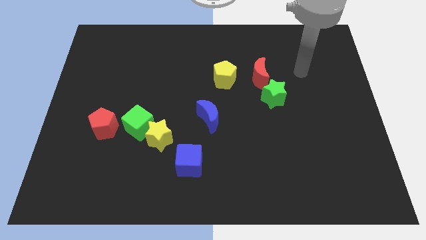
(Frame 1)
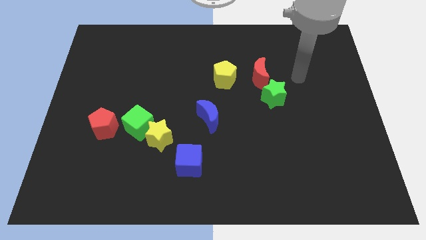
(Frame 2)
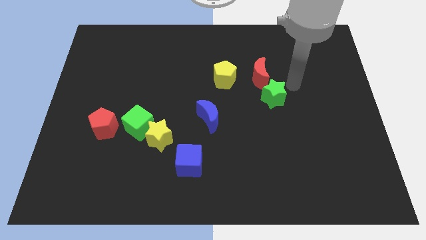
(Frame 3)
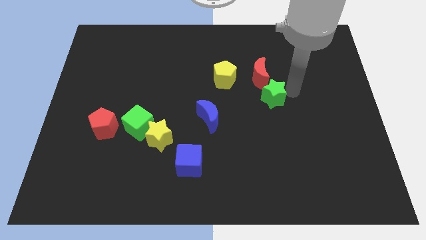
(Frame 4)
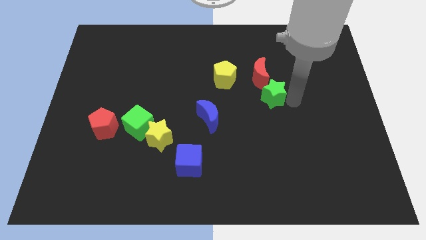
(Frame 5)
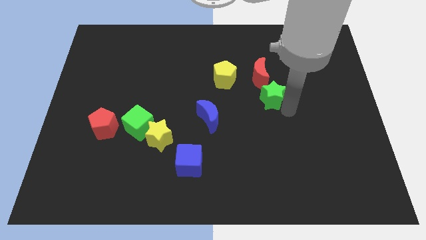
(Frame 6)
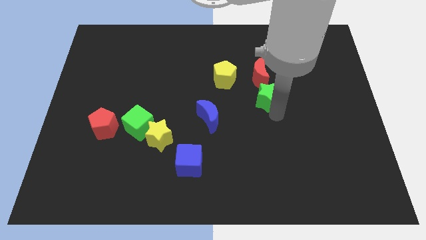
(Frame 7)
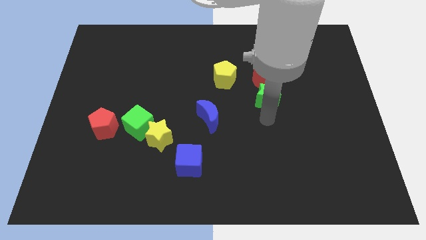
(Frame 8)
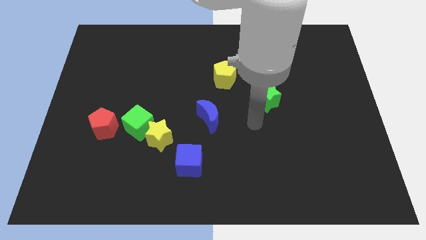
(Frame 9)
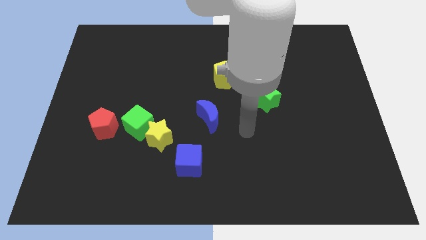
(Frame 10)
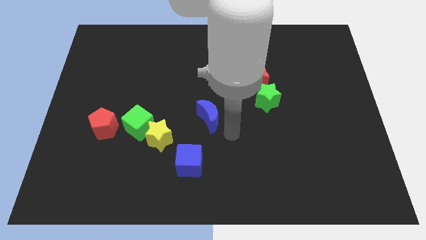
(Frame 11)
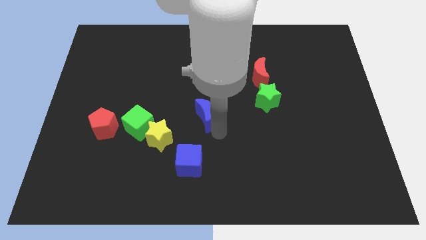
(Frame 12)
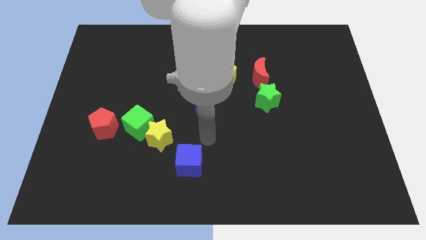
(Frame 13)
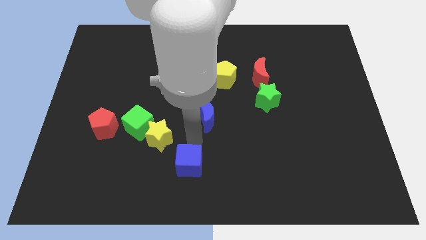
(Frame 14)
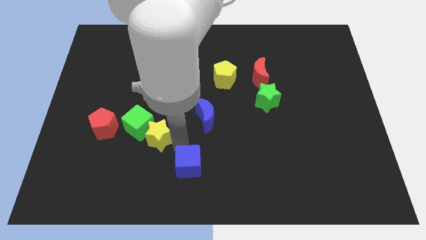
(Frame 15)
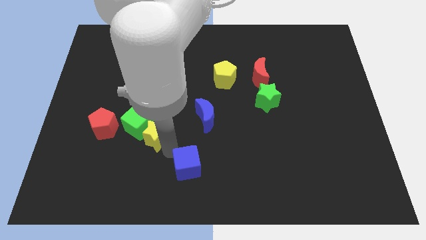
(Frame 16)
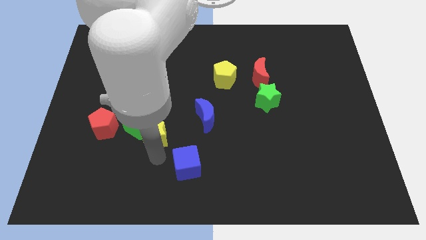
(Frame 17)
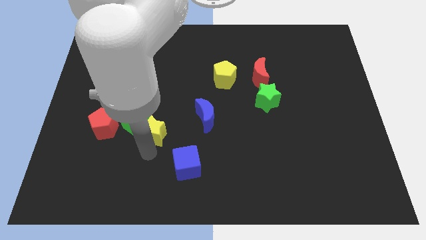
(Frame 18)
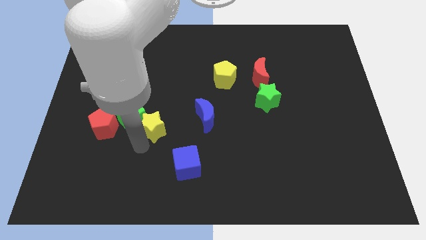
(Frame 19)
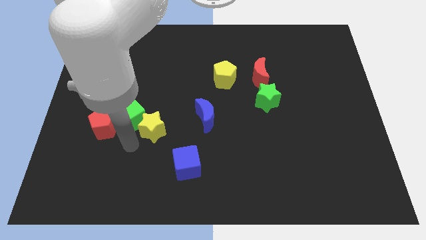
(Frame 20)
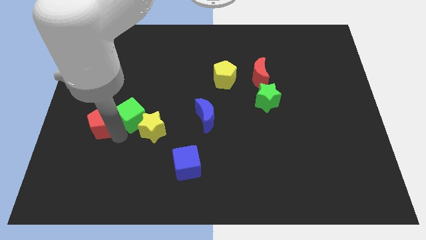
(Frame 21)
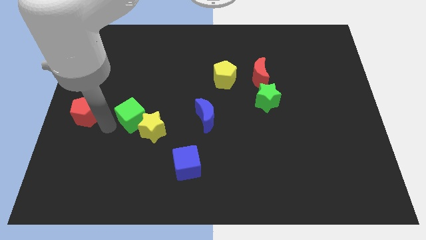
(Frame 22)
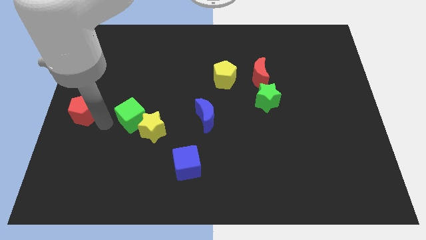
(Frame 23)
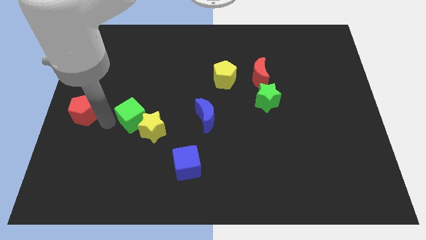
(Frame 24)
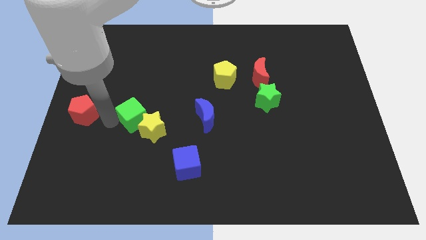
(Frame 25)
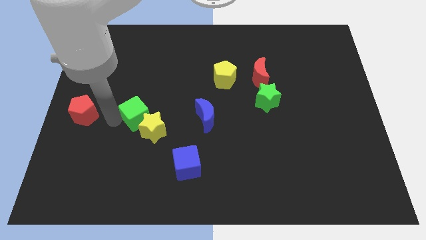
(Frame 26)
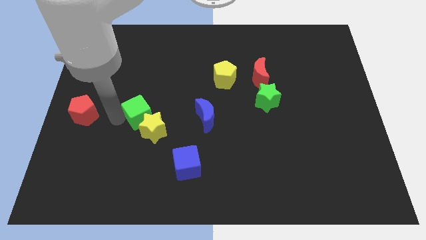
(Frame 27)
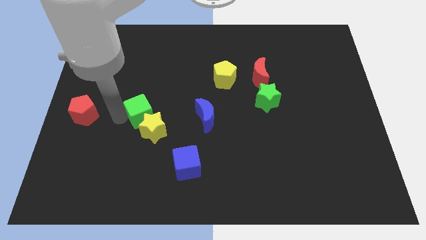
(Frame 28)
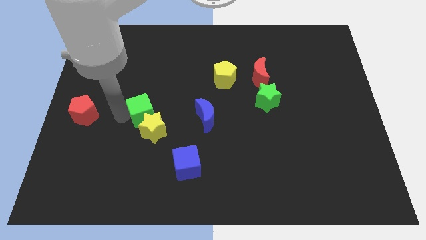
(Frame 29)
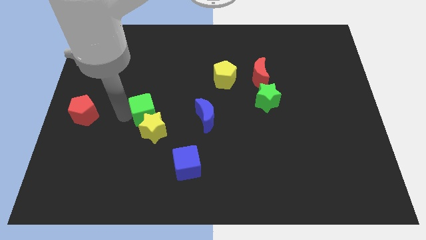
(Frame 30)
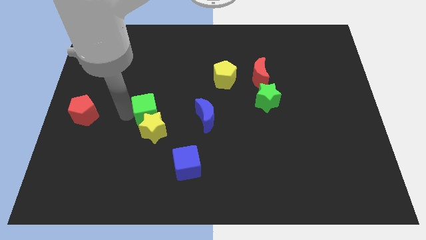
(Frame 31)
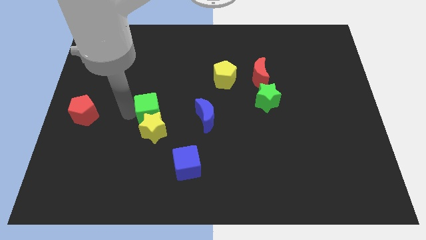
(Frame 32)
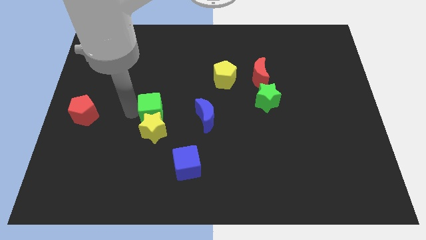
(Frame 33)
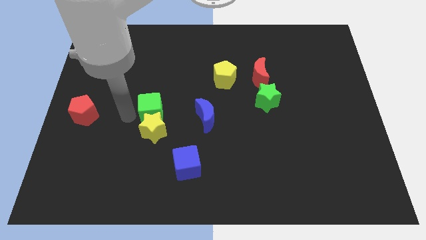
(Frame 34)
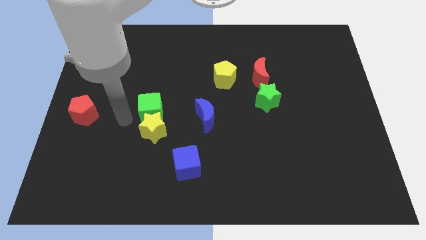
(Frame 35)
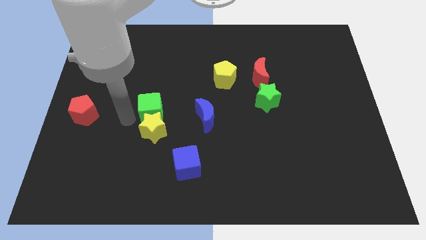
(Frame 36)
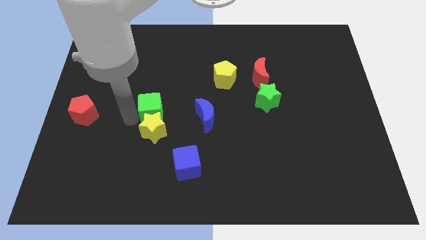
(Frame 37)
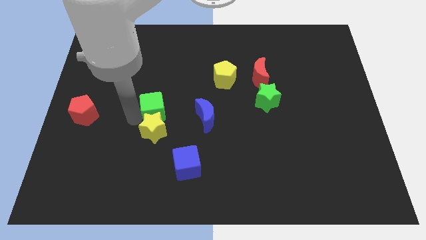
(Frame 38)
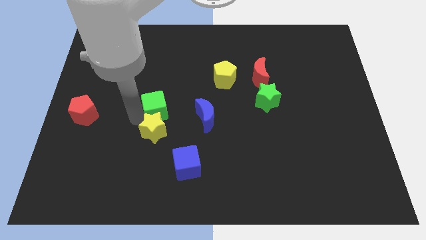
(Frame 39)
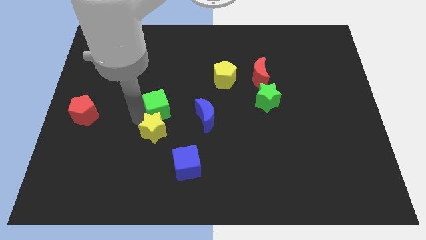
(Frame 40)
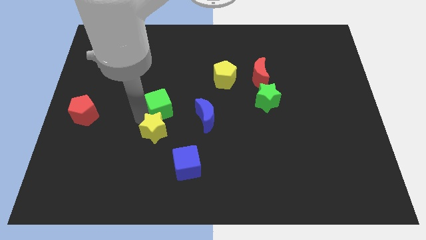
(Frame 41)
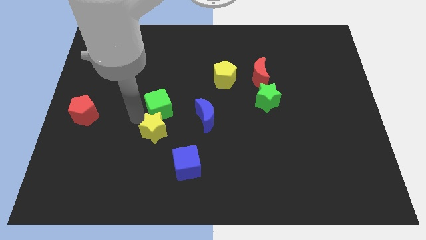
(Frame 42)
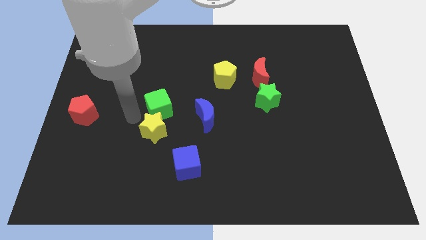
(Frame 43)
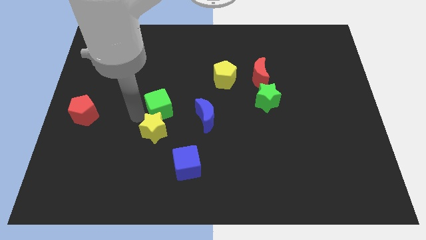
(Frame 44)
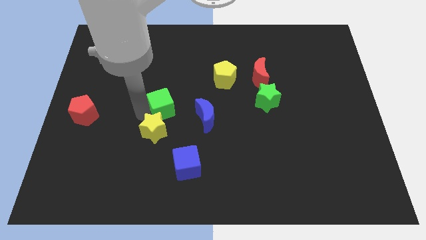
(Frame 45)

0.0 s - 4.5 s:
separate the green cube from the yellow star and red pentagon

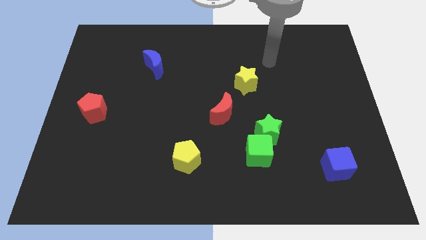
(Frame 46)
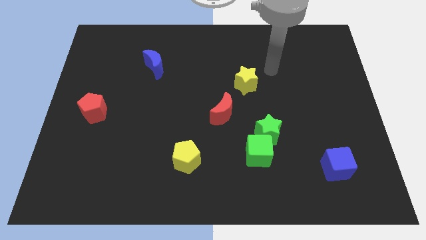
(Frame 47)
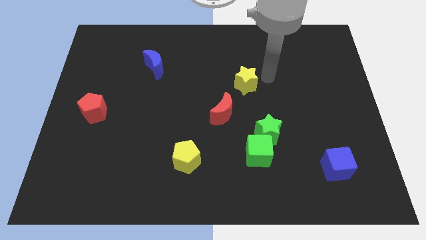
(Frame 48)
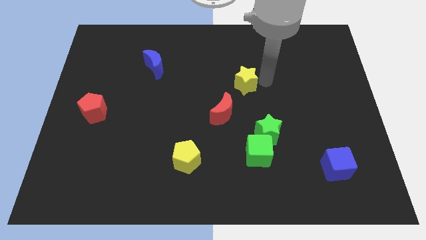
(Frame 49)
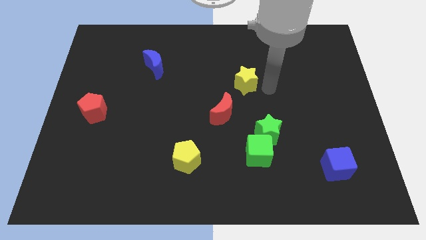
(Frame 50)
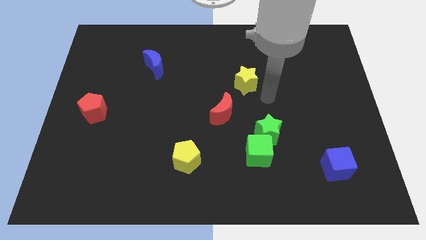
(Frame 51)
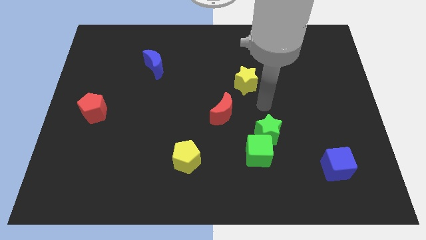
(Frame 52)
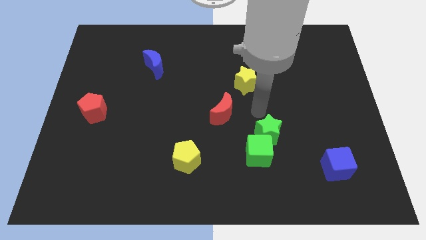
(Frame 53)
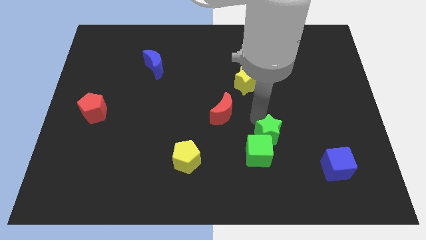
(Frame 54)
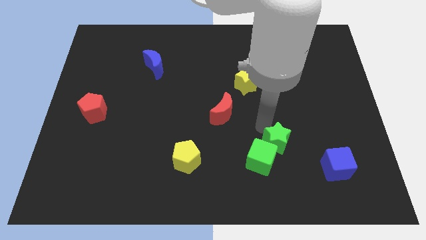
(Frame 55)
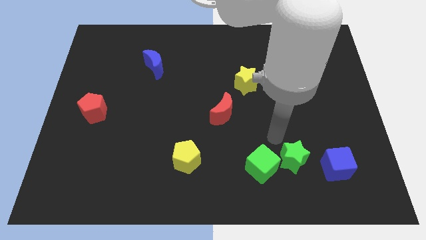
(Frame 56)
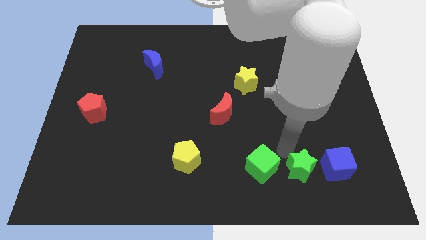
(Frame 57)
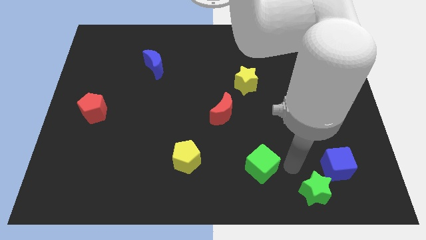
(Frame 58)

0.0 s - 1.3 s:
move the green cube away from the green star

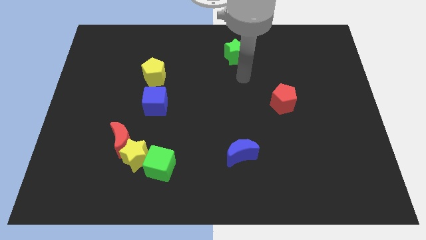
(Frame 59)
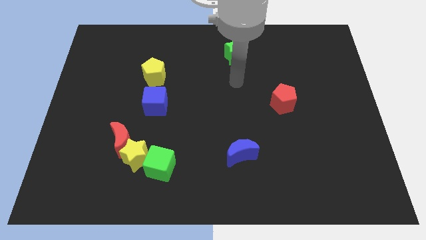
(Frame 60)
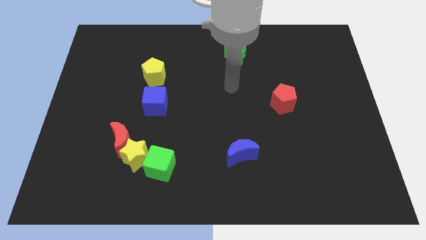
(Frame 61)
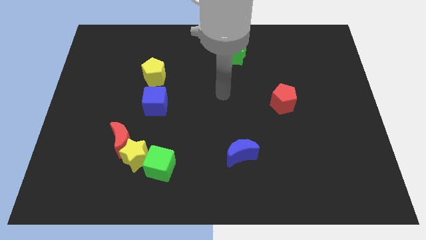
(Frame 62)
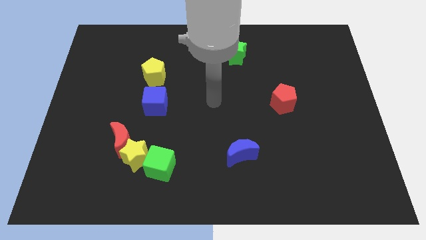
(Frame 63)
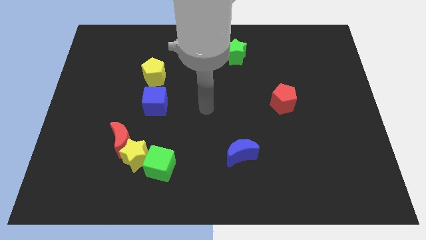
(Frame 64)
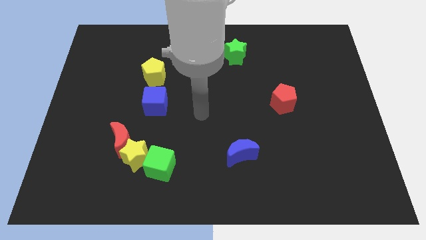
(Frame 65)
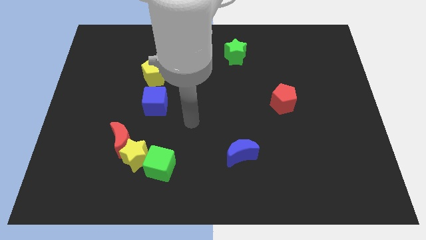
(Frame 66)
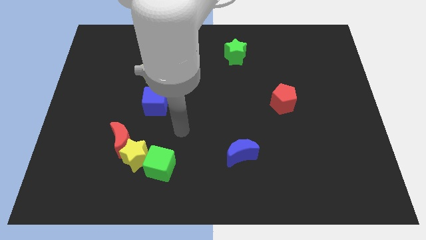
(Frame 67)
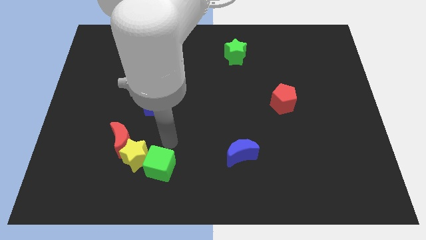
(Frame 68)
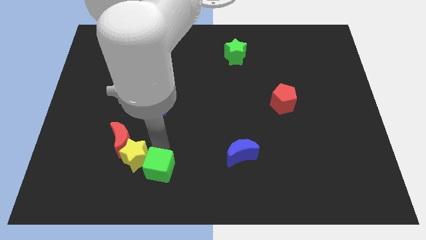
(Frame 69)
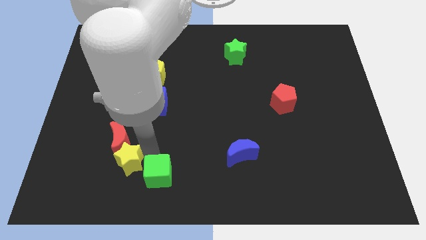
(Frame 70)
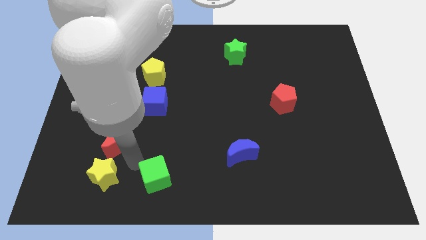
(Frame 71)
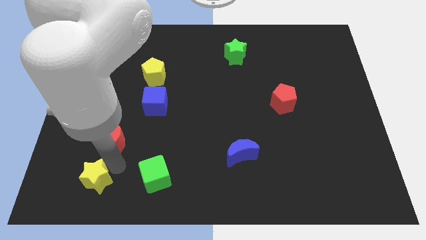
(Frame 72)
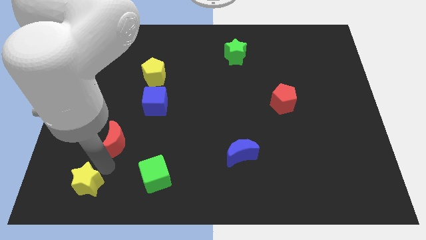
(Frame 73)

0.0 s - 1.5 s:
move the red moon away from the yellow star

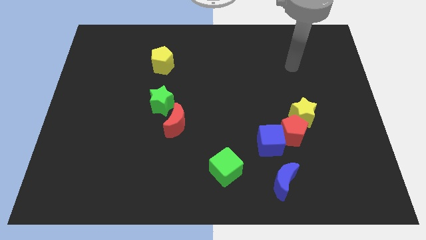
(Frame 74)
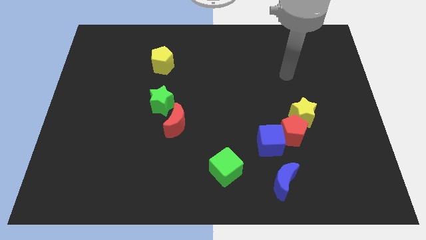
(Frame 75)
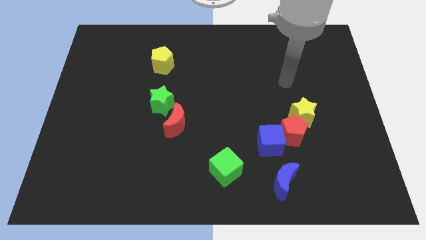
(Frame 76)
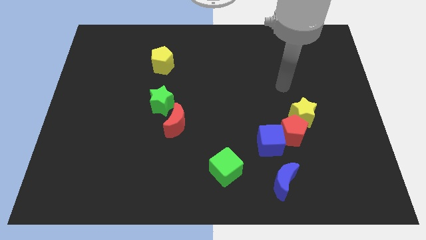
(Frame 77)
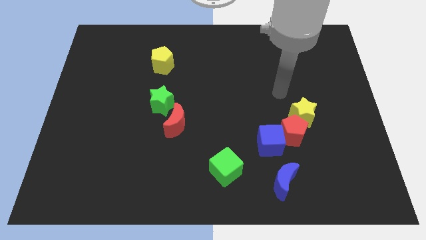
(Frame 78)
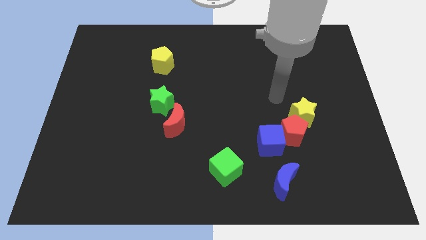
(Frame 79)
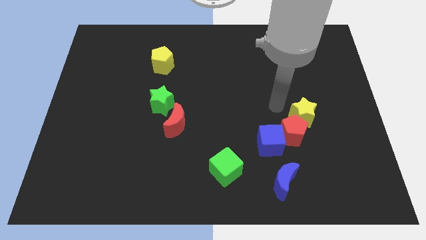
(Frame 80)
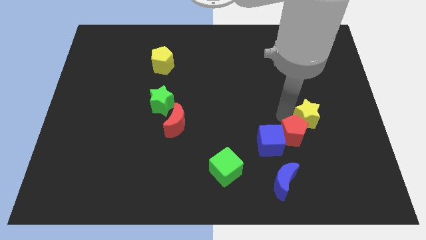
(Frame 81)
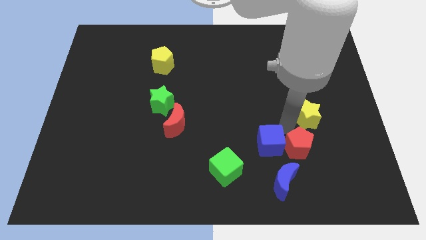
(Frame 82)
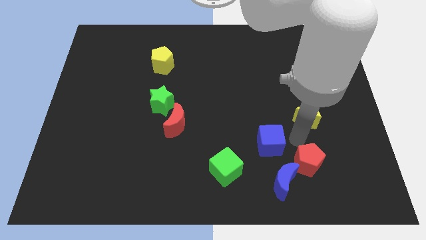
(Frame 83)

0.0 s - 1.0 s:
separate the yellow star from the red pentagon

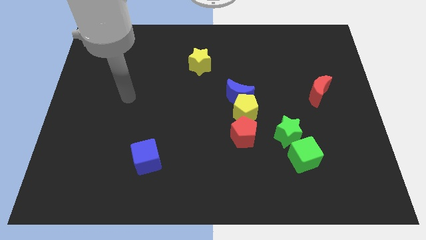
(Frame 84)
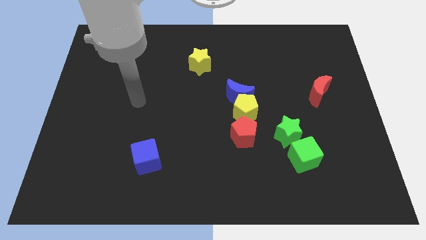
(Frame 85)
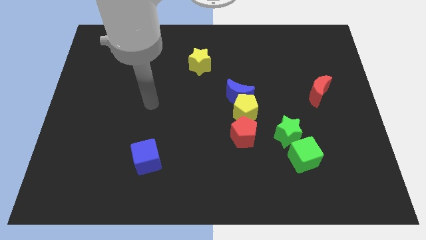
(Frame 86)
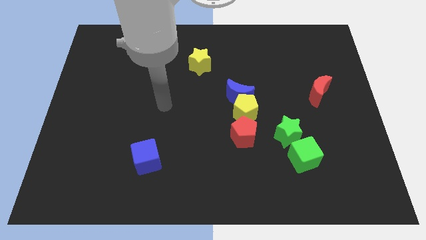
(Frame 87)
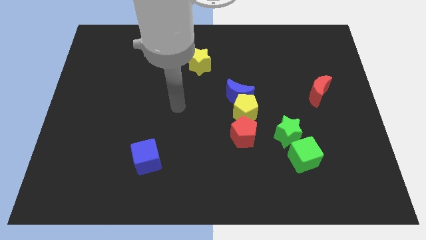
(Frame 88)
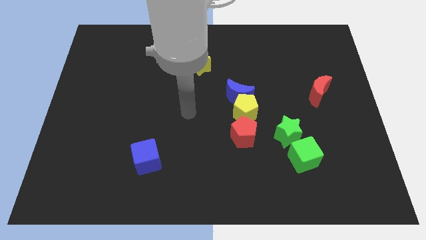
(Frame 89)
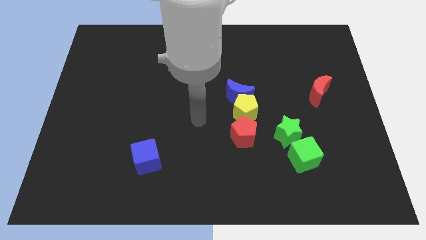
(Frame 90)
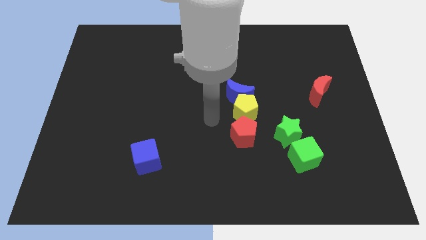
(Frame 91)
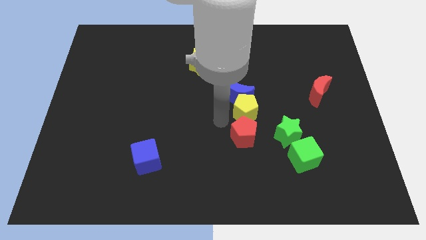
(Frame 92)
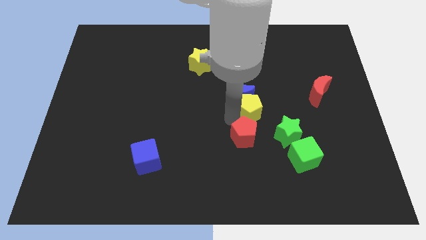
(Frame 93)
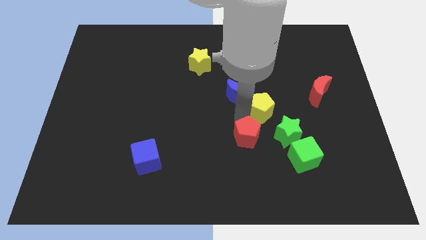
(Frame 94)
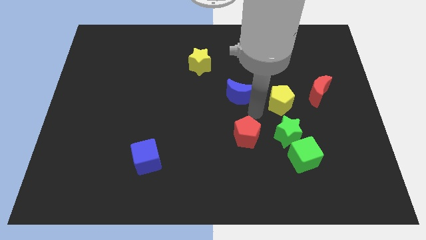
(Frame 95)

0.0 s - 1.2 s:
move the blue moon away from the yellow pentagon
